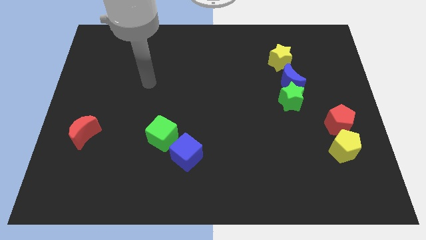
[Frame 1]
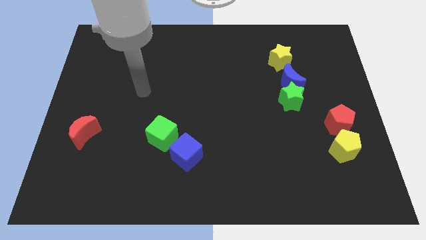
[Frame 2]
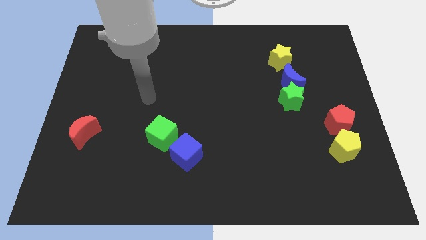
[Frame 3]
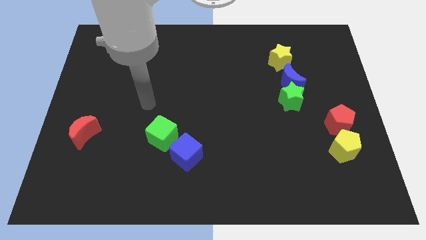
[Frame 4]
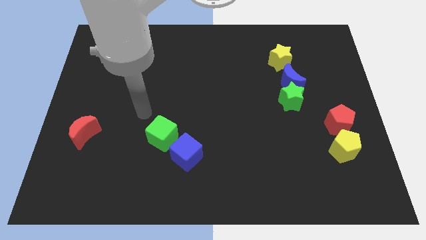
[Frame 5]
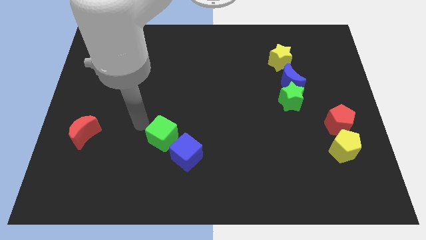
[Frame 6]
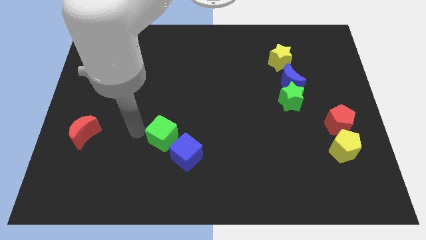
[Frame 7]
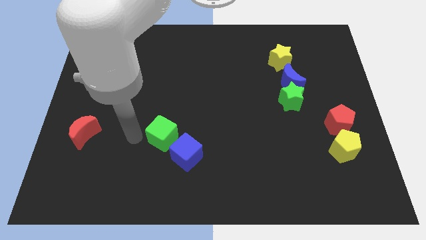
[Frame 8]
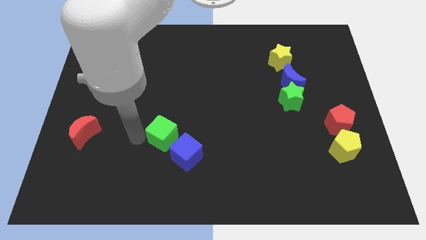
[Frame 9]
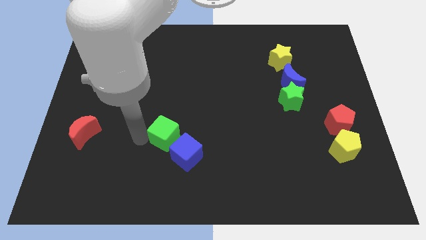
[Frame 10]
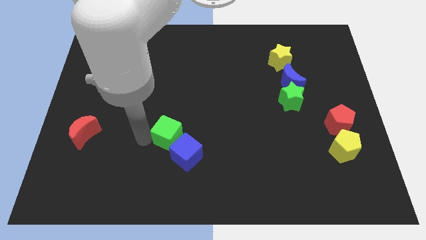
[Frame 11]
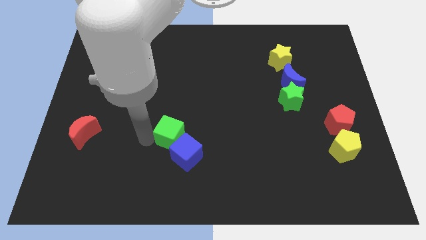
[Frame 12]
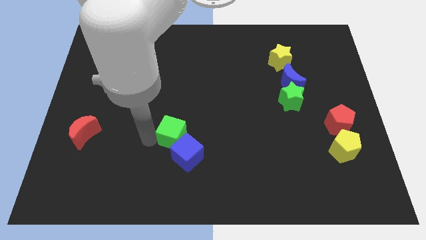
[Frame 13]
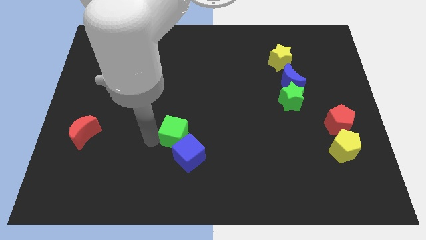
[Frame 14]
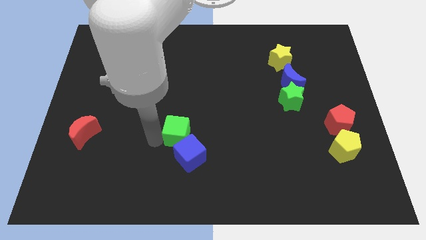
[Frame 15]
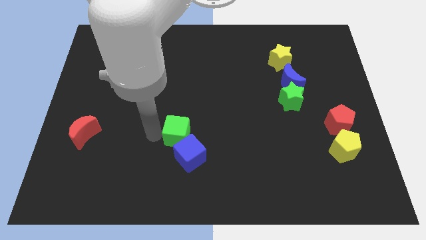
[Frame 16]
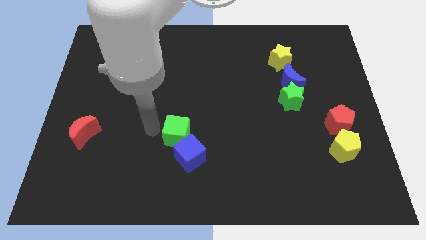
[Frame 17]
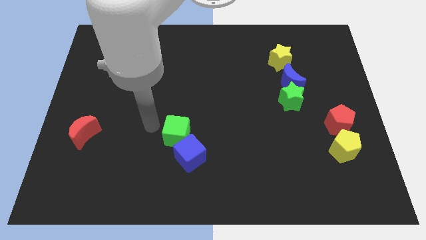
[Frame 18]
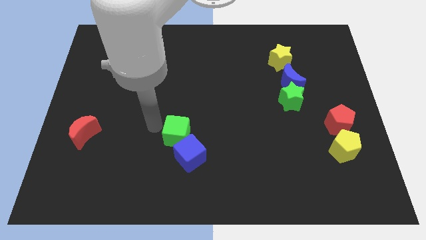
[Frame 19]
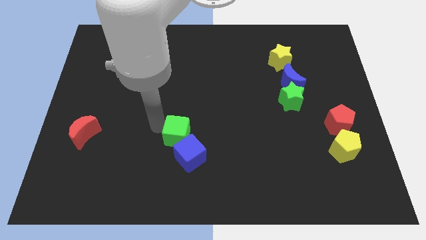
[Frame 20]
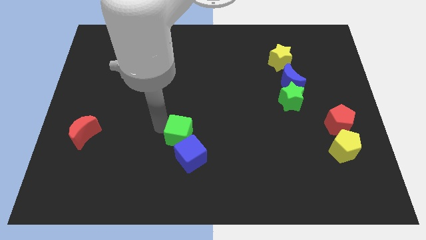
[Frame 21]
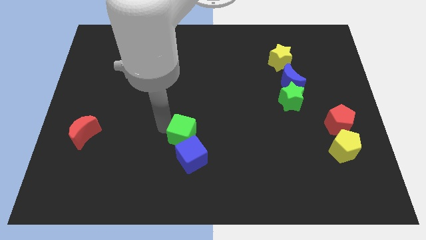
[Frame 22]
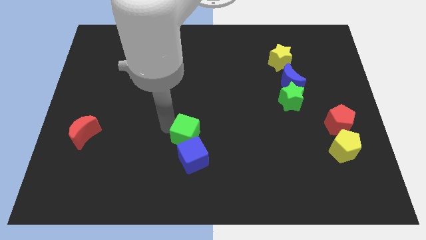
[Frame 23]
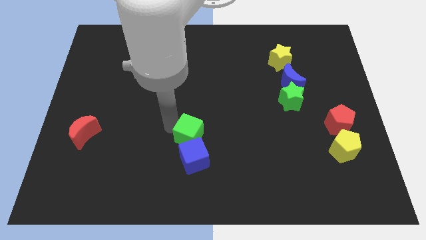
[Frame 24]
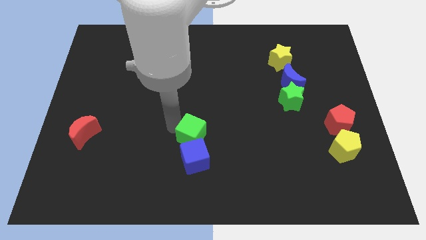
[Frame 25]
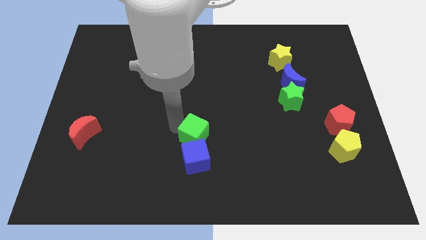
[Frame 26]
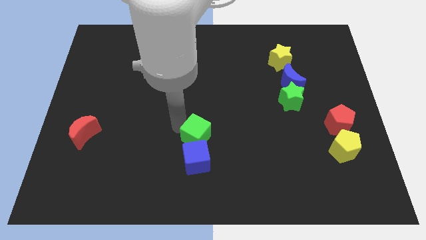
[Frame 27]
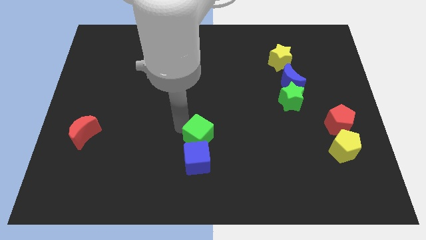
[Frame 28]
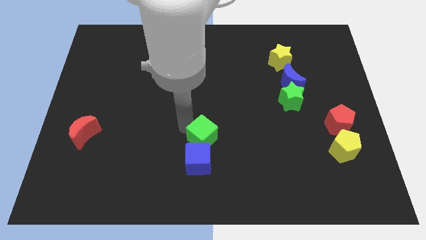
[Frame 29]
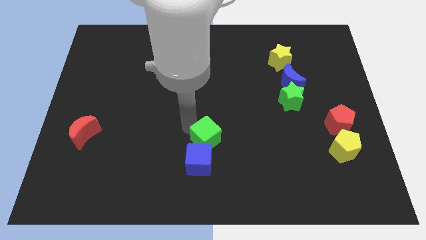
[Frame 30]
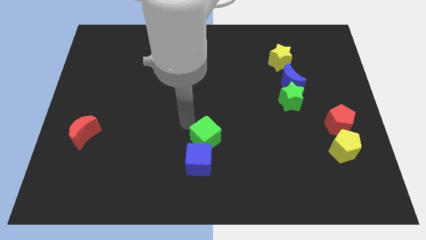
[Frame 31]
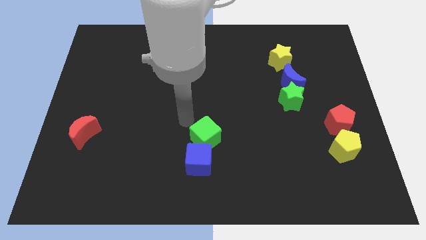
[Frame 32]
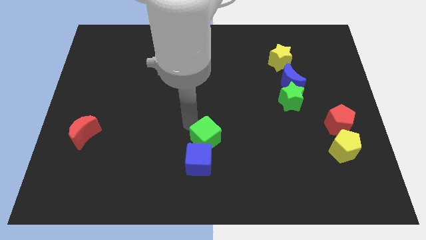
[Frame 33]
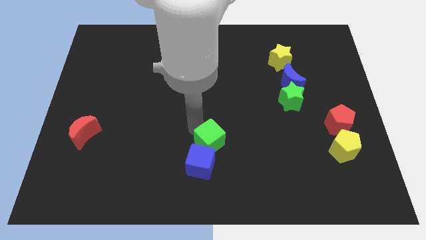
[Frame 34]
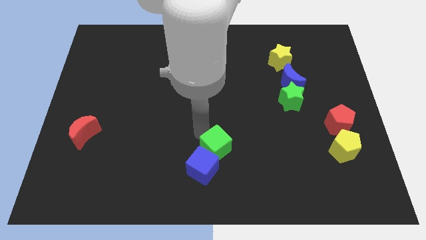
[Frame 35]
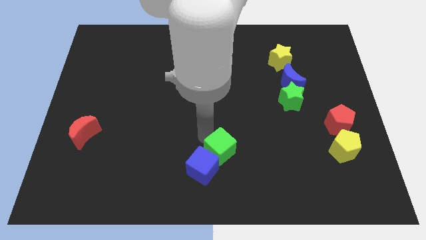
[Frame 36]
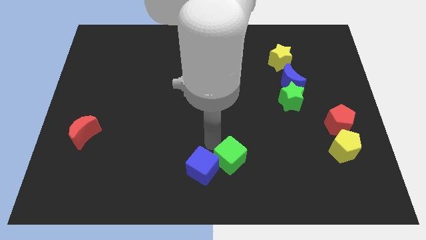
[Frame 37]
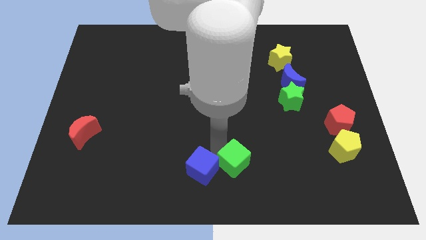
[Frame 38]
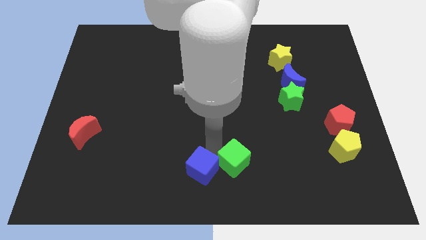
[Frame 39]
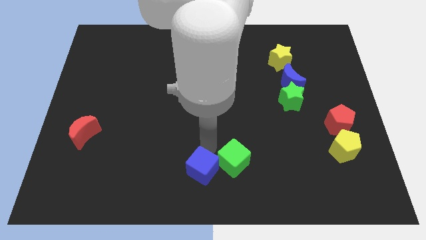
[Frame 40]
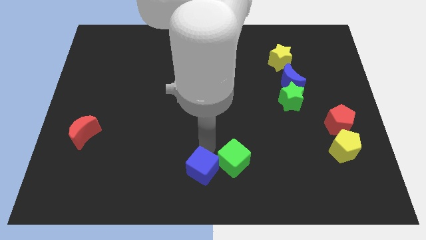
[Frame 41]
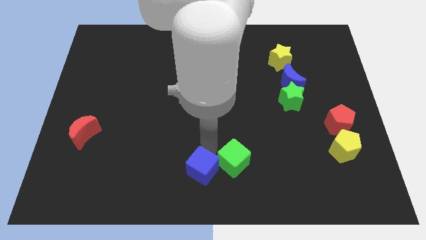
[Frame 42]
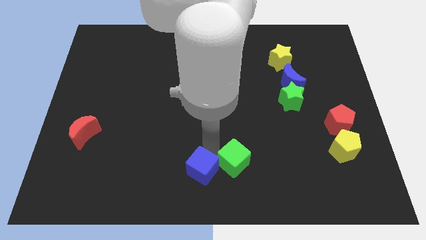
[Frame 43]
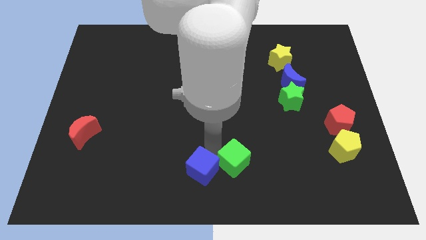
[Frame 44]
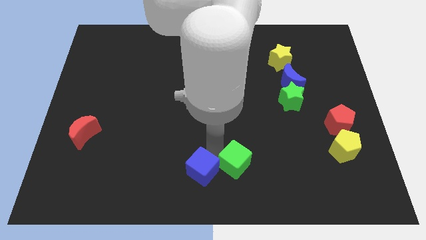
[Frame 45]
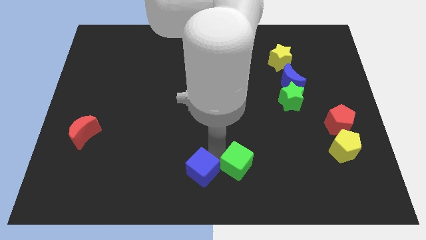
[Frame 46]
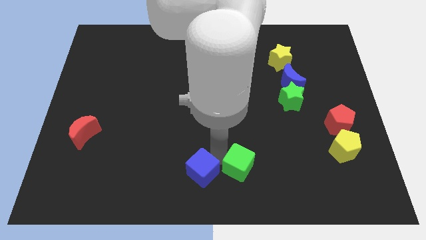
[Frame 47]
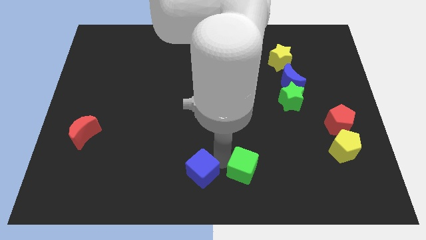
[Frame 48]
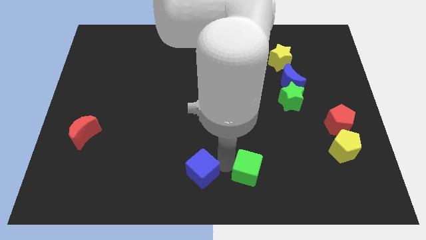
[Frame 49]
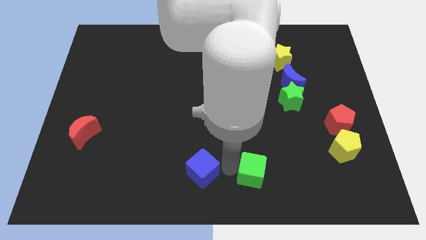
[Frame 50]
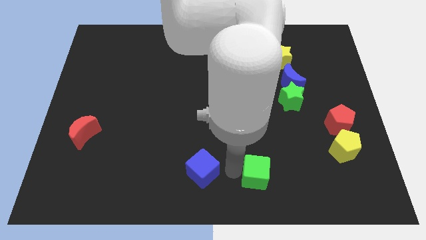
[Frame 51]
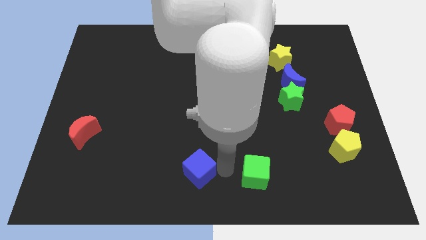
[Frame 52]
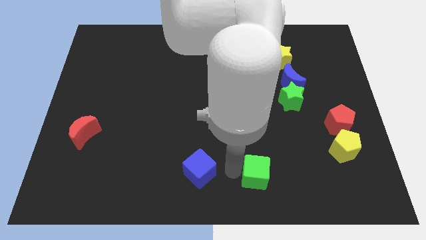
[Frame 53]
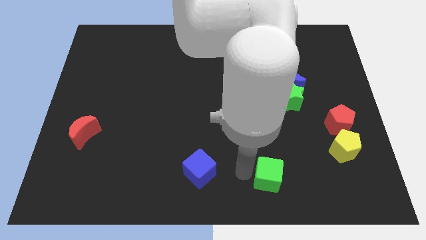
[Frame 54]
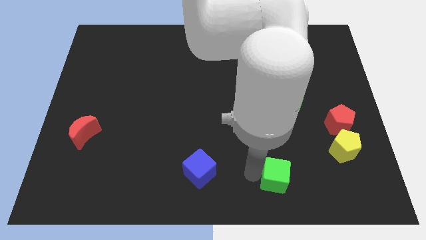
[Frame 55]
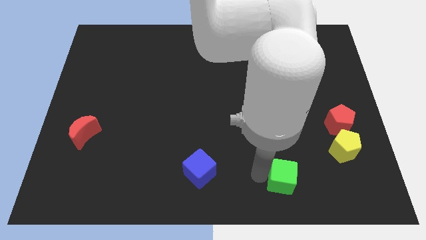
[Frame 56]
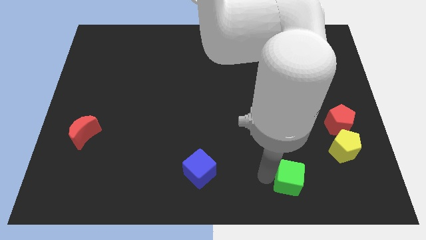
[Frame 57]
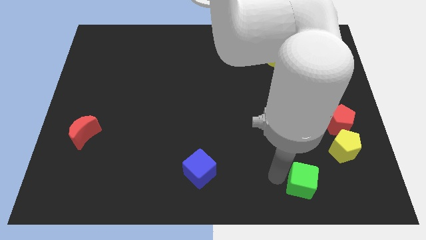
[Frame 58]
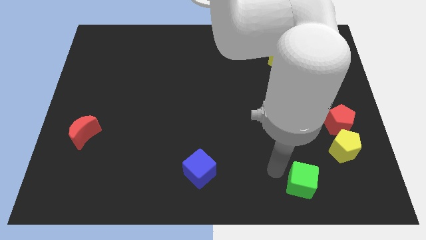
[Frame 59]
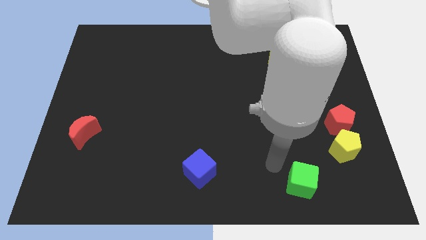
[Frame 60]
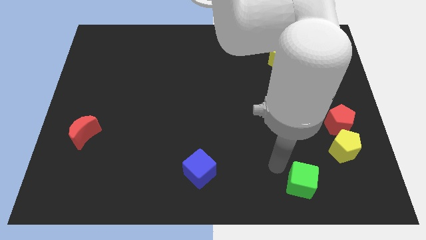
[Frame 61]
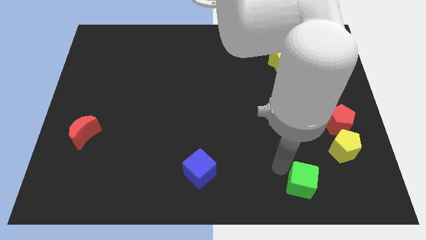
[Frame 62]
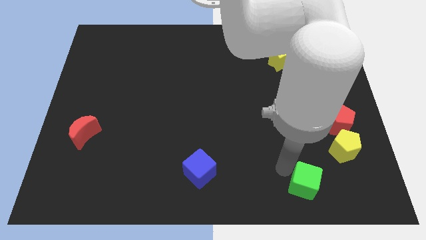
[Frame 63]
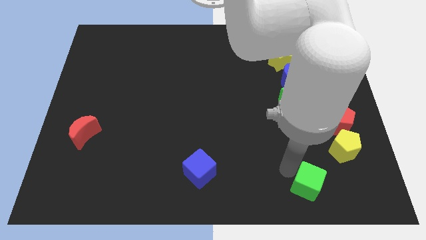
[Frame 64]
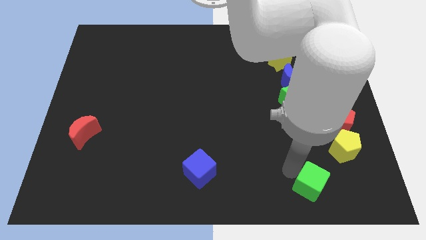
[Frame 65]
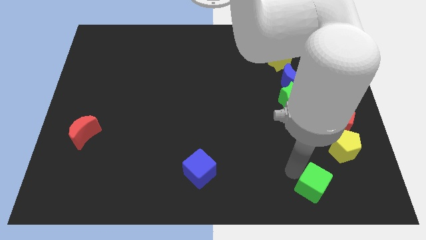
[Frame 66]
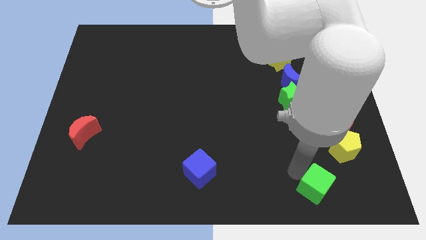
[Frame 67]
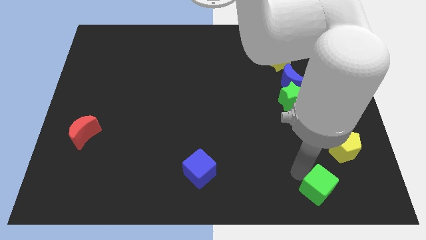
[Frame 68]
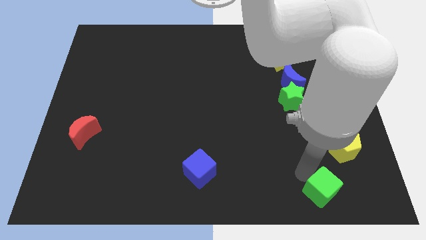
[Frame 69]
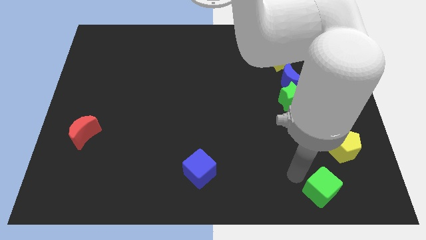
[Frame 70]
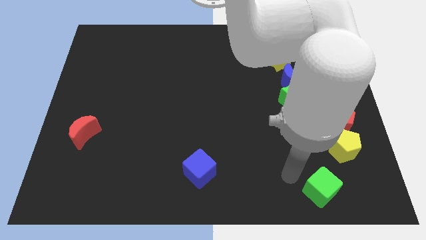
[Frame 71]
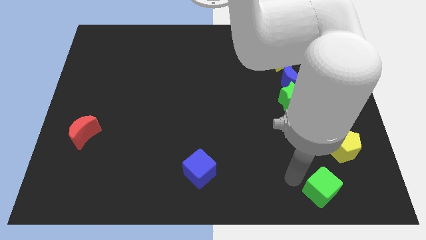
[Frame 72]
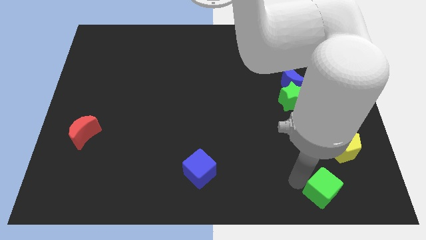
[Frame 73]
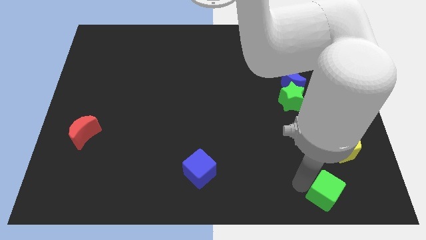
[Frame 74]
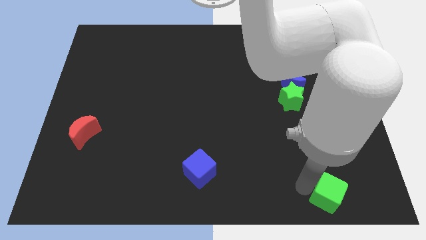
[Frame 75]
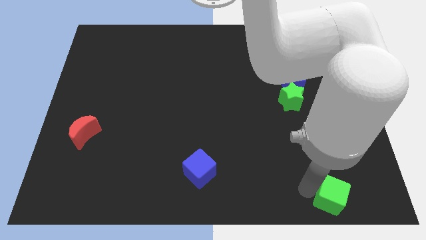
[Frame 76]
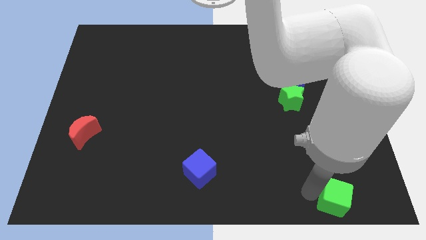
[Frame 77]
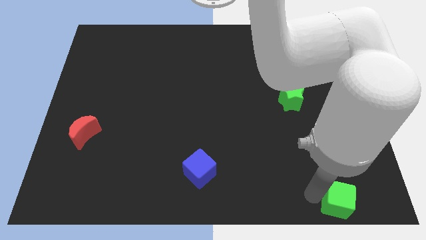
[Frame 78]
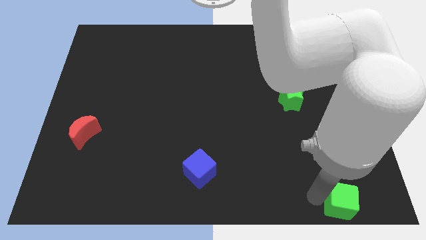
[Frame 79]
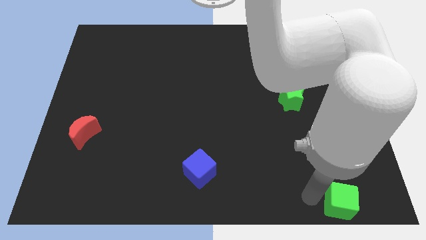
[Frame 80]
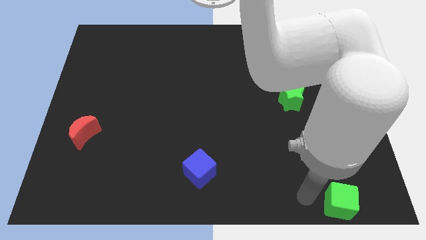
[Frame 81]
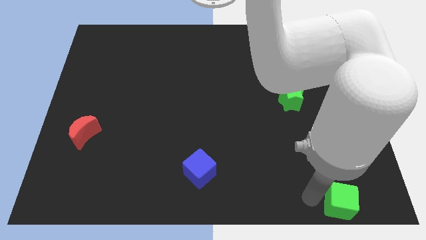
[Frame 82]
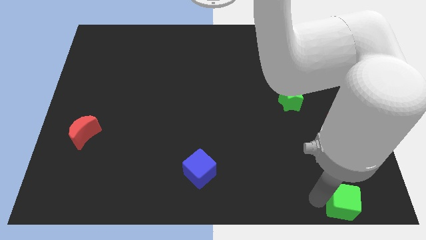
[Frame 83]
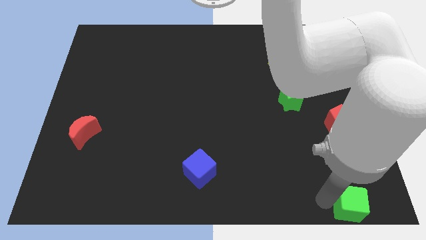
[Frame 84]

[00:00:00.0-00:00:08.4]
put the green cube to the lower right corner
